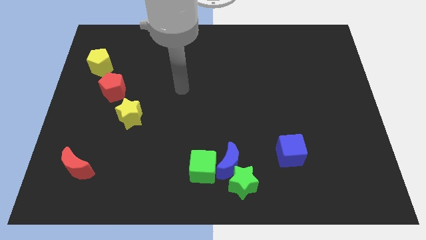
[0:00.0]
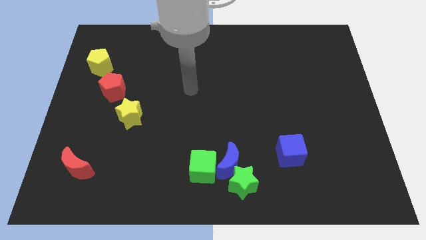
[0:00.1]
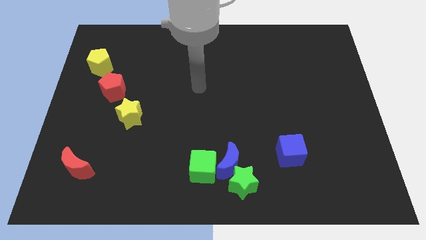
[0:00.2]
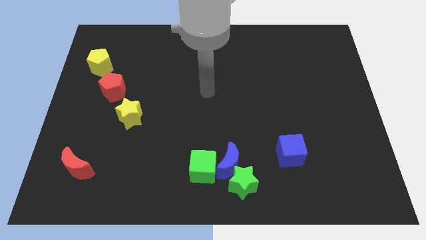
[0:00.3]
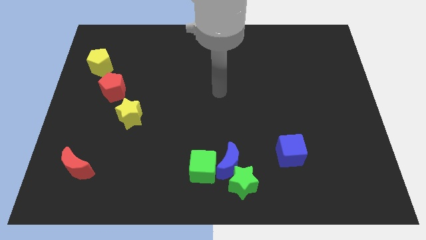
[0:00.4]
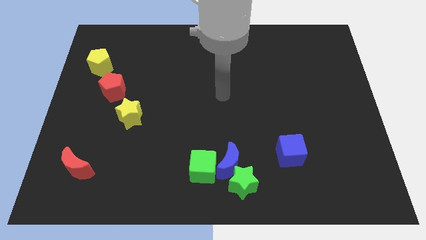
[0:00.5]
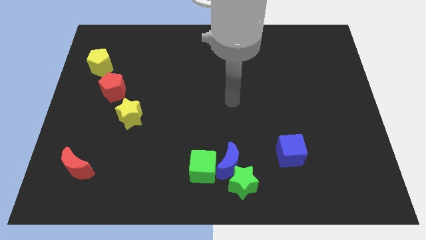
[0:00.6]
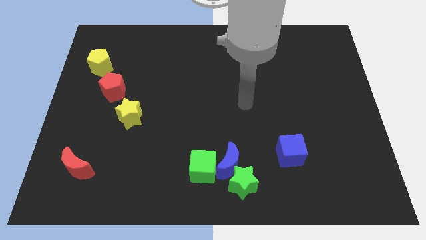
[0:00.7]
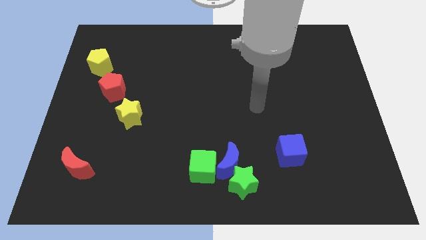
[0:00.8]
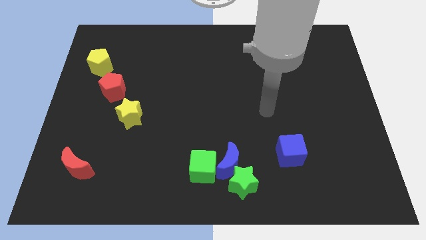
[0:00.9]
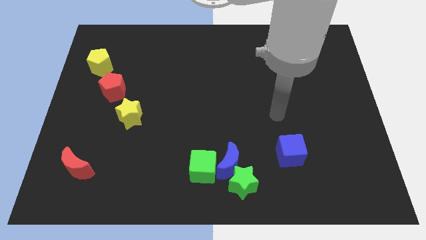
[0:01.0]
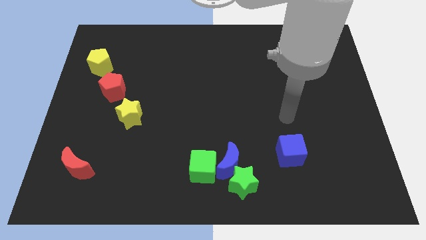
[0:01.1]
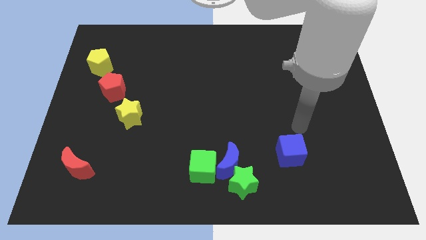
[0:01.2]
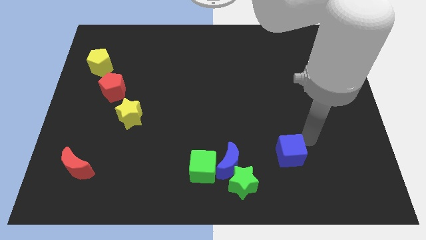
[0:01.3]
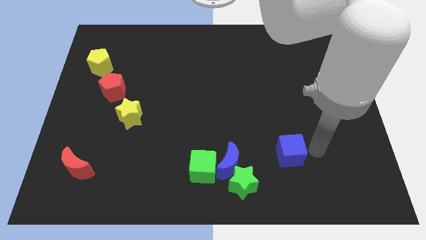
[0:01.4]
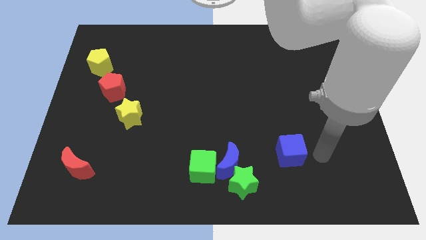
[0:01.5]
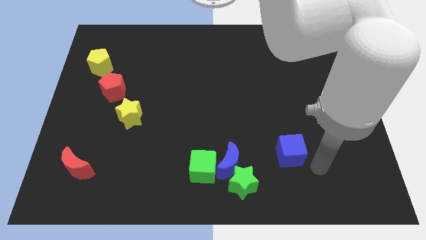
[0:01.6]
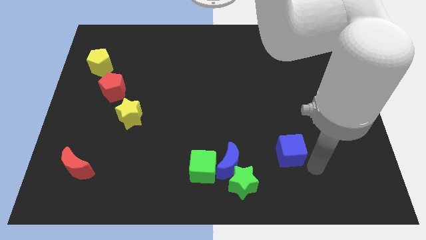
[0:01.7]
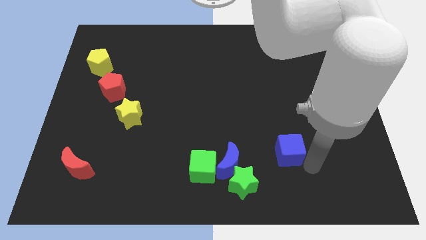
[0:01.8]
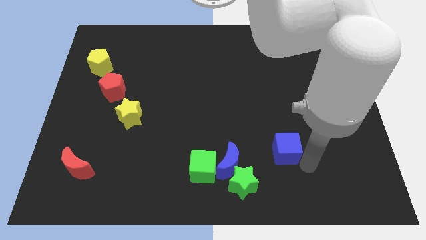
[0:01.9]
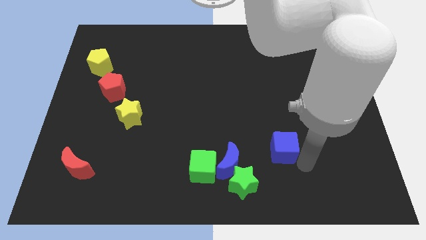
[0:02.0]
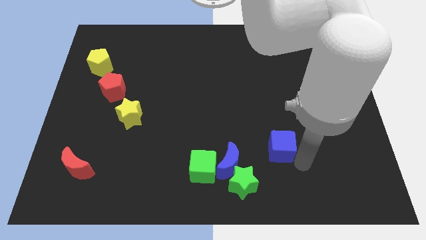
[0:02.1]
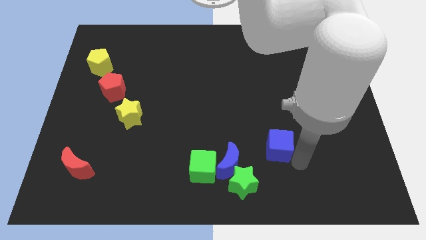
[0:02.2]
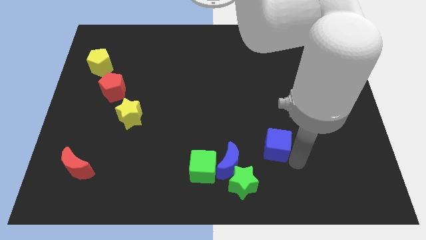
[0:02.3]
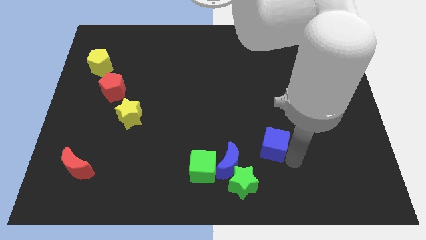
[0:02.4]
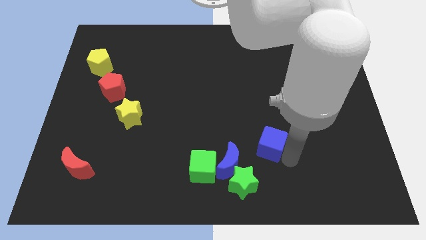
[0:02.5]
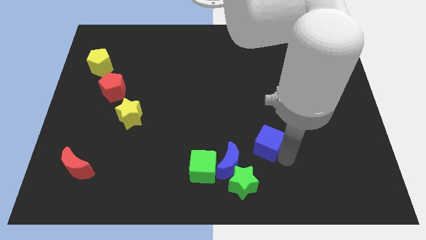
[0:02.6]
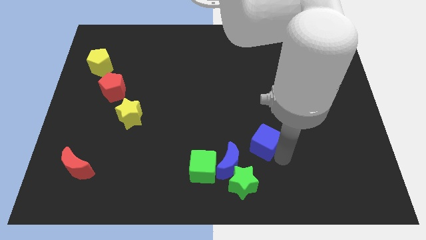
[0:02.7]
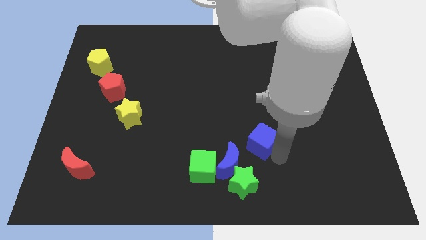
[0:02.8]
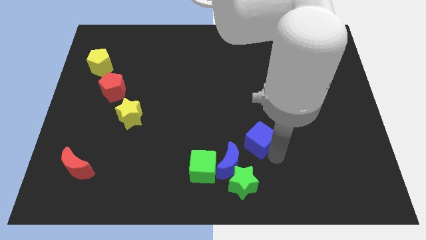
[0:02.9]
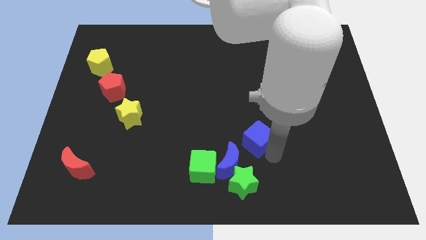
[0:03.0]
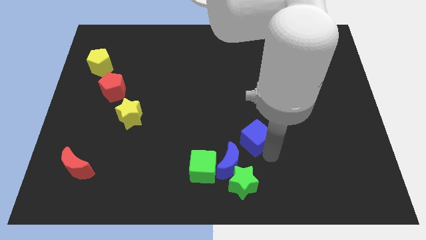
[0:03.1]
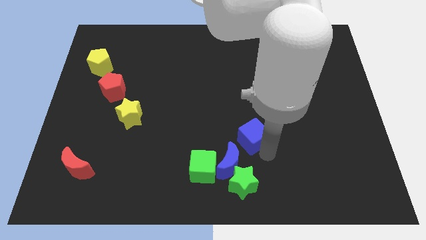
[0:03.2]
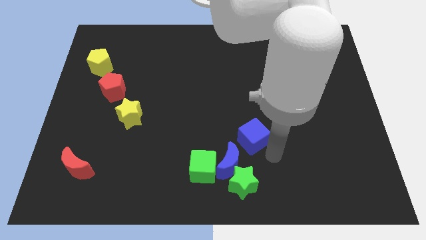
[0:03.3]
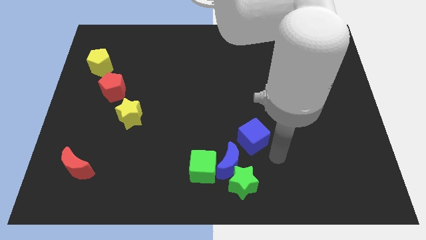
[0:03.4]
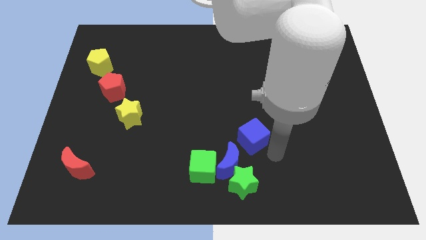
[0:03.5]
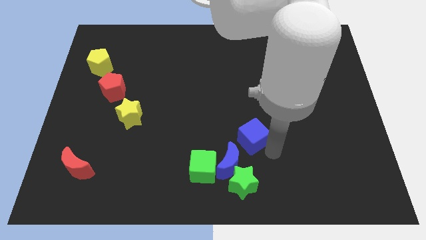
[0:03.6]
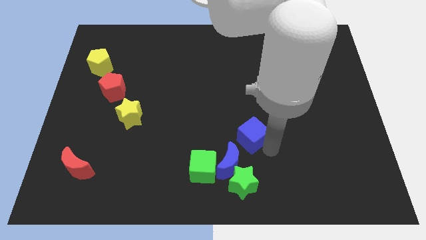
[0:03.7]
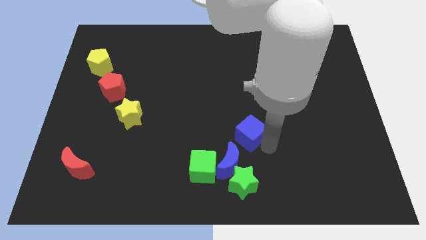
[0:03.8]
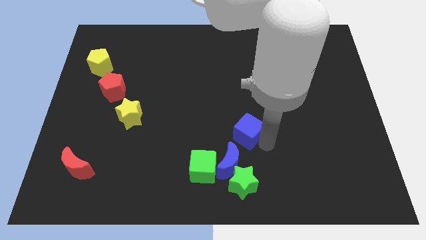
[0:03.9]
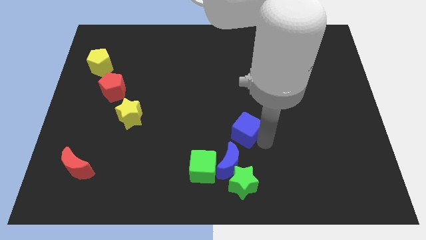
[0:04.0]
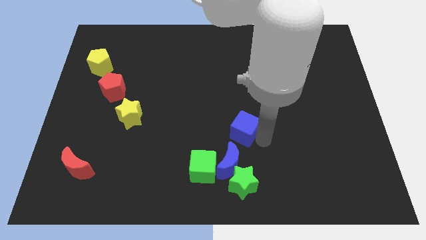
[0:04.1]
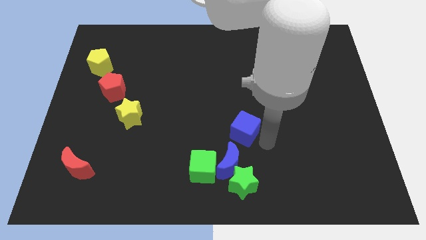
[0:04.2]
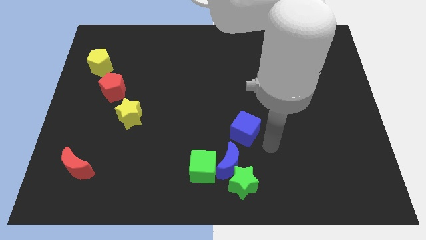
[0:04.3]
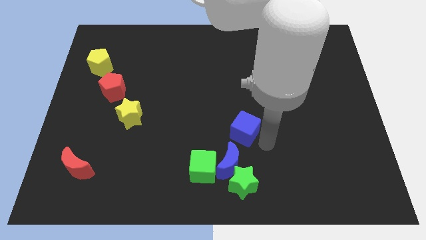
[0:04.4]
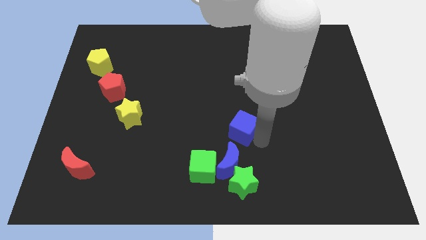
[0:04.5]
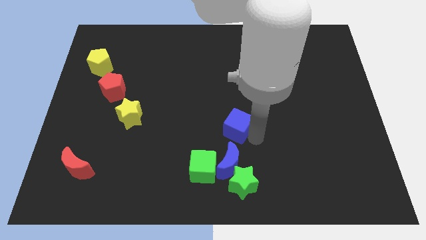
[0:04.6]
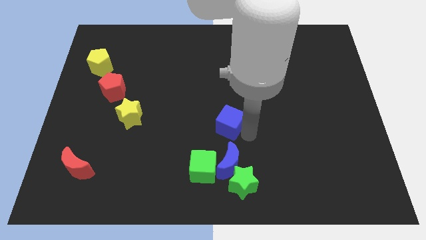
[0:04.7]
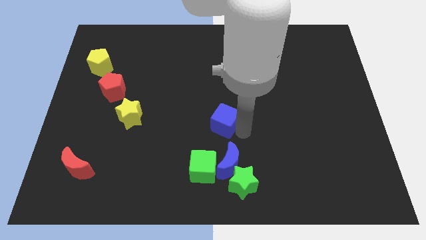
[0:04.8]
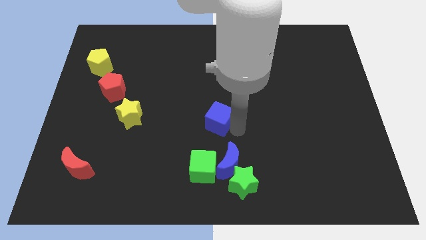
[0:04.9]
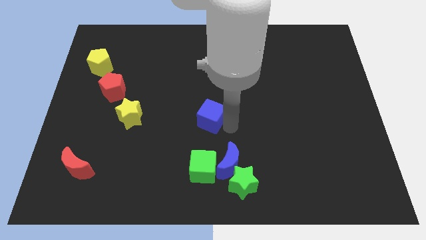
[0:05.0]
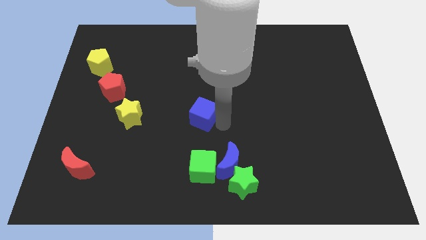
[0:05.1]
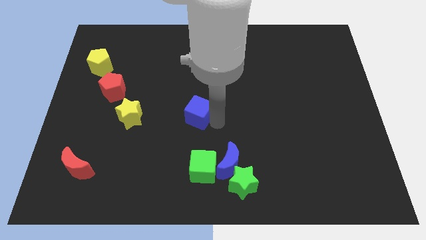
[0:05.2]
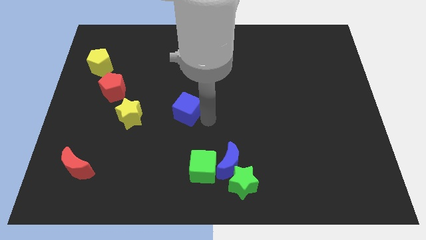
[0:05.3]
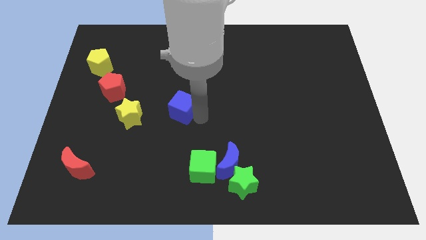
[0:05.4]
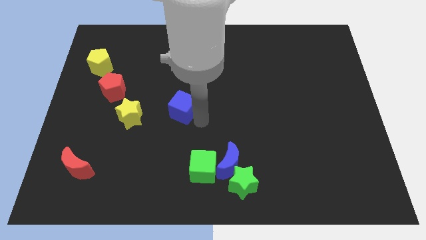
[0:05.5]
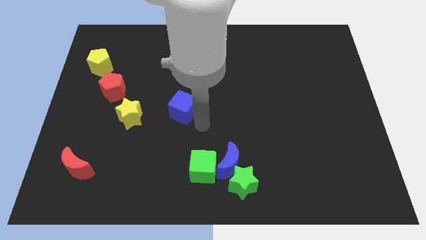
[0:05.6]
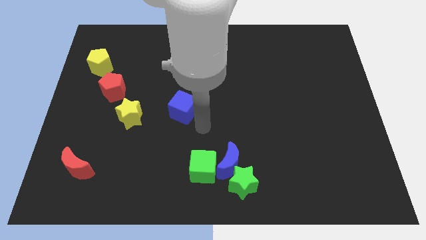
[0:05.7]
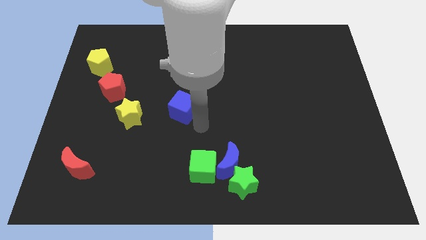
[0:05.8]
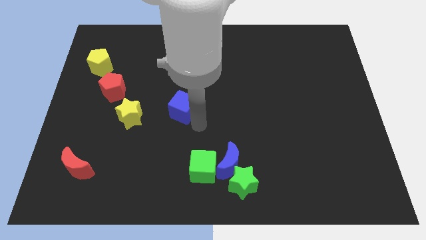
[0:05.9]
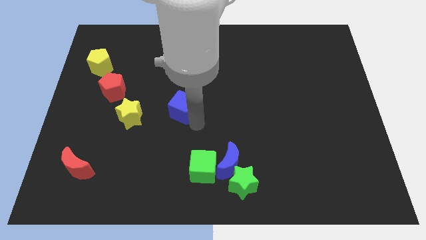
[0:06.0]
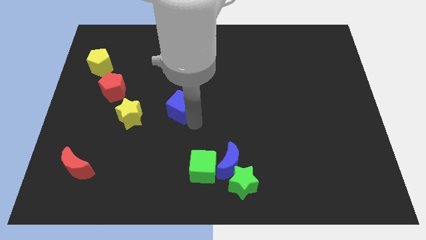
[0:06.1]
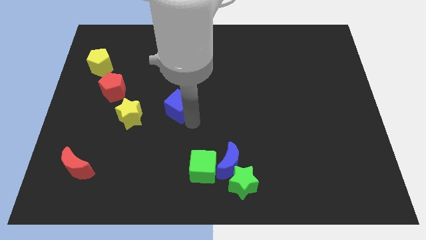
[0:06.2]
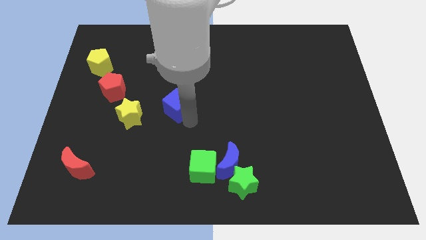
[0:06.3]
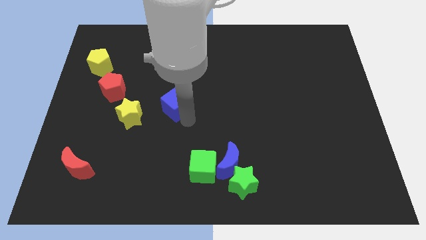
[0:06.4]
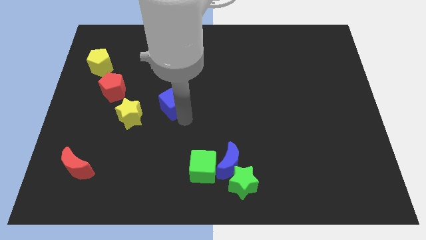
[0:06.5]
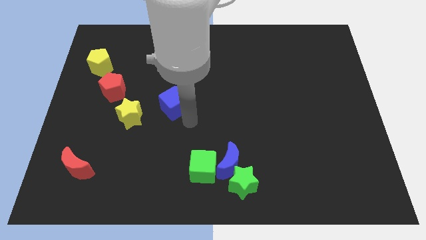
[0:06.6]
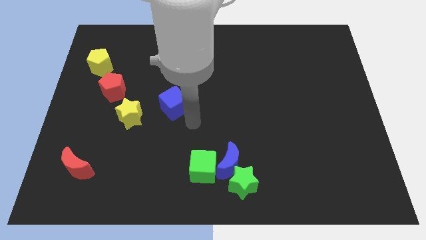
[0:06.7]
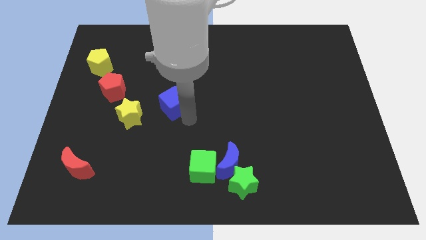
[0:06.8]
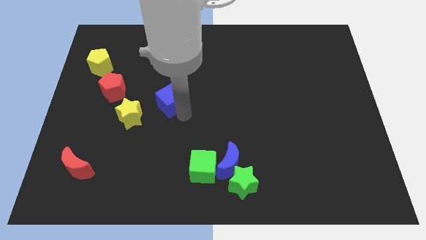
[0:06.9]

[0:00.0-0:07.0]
put the blue cube just right of the red pentagon
